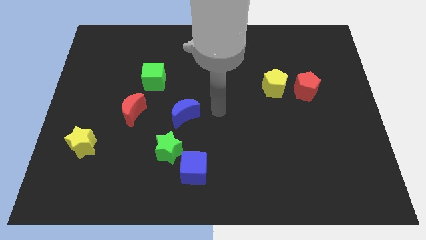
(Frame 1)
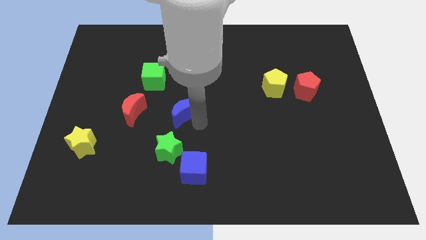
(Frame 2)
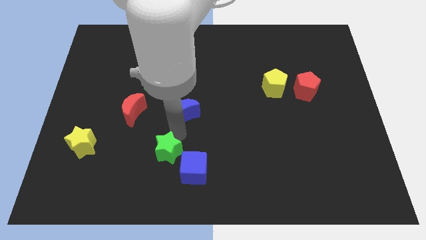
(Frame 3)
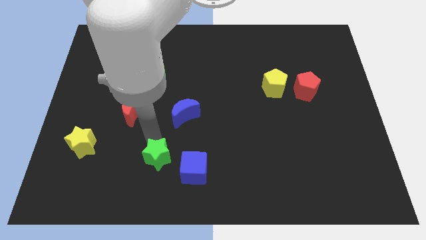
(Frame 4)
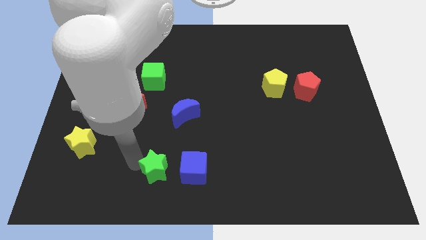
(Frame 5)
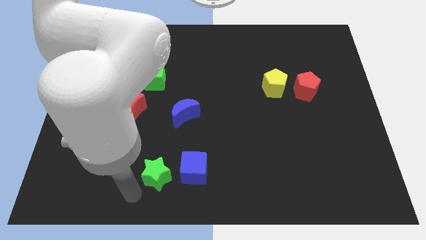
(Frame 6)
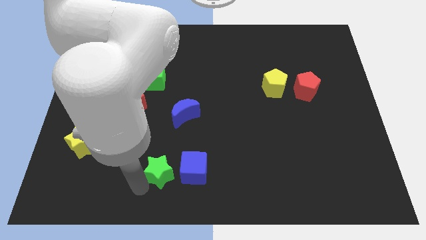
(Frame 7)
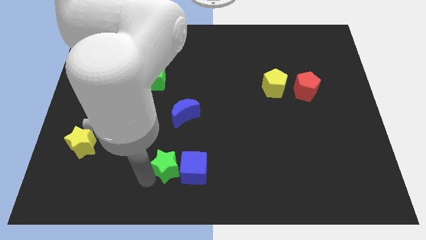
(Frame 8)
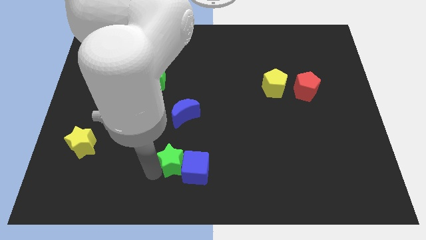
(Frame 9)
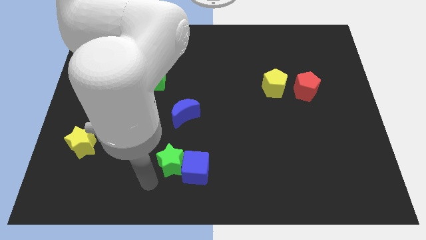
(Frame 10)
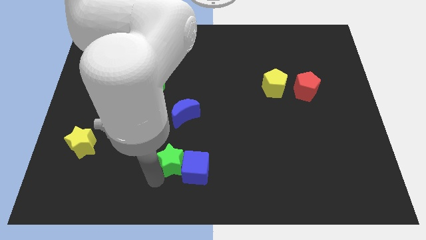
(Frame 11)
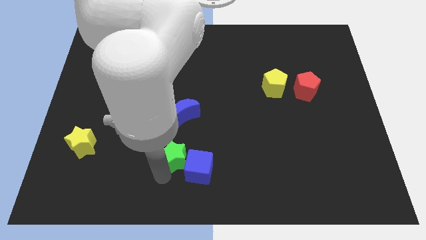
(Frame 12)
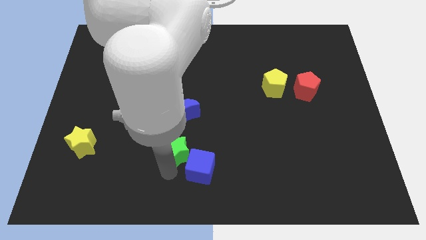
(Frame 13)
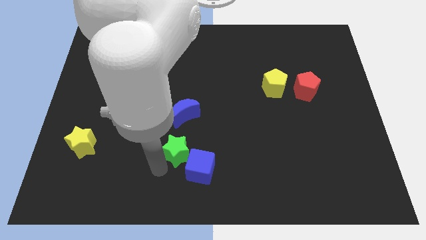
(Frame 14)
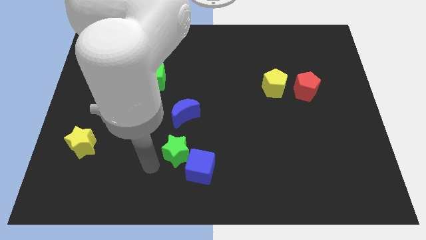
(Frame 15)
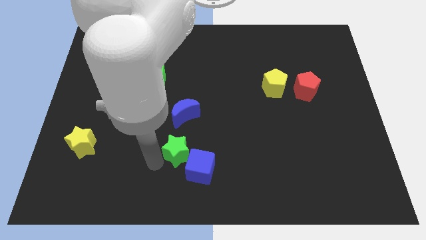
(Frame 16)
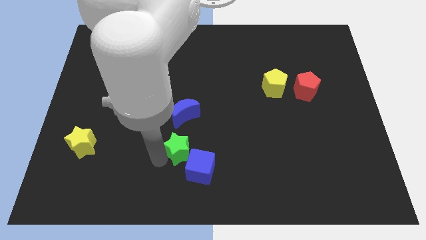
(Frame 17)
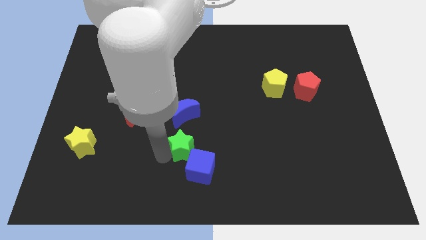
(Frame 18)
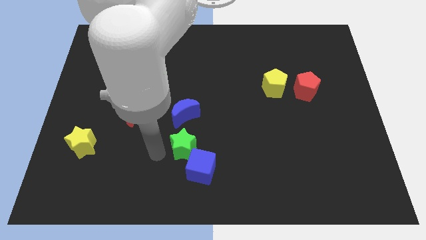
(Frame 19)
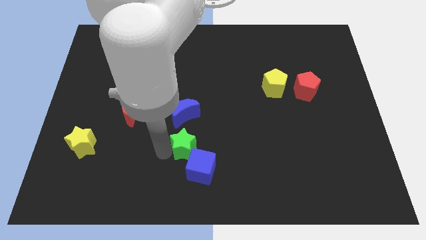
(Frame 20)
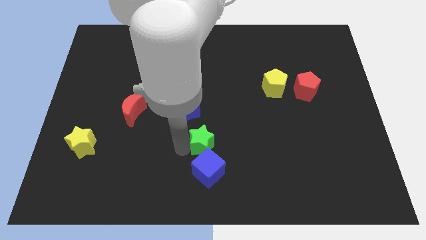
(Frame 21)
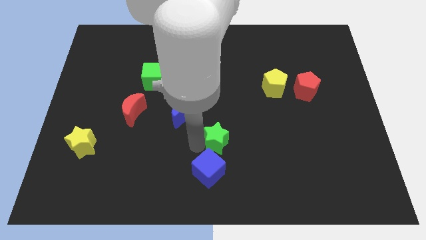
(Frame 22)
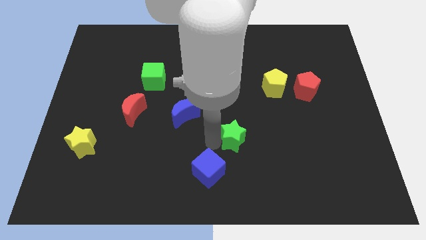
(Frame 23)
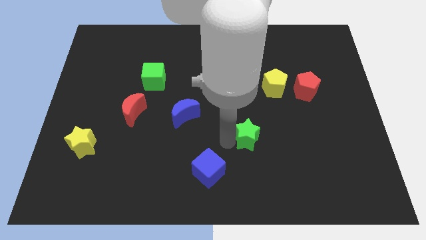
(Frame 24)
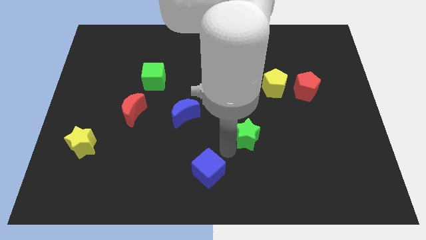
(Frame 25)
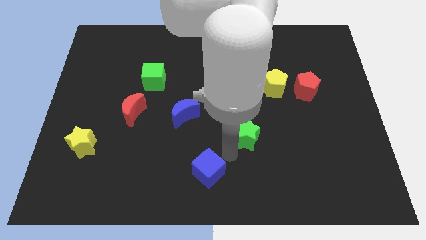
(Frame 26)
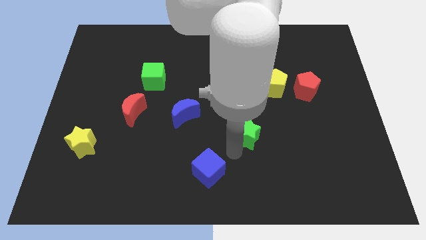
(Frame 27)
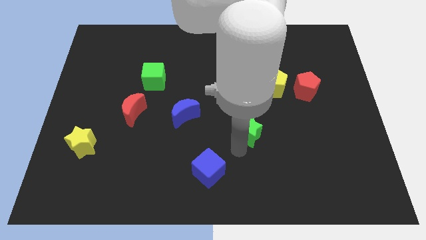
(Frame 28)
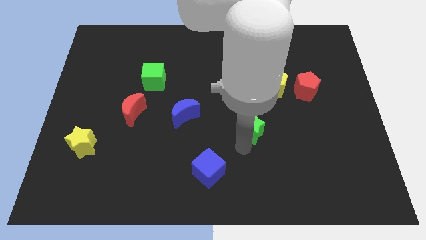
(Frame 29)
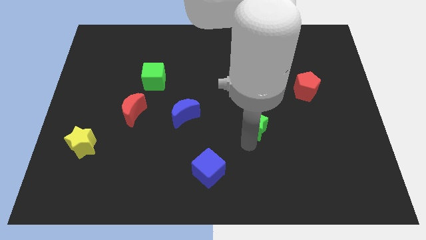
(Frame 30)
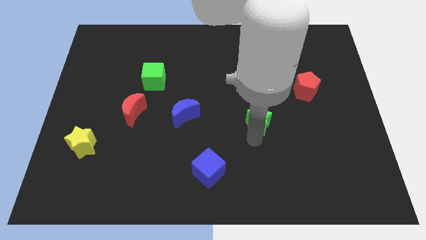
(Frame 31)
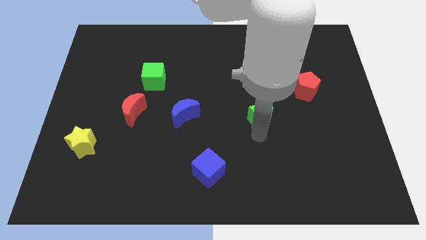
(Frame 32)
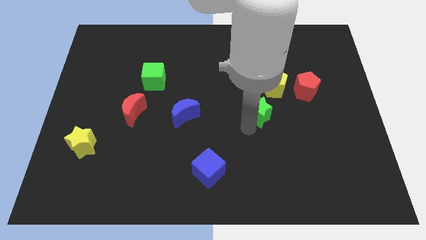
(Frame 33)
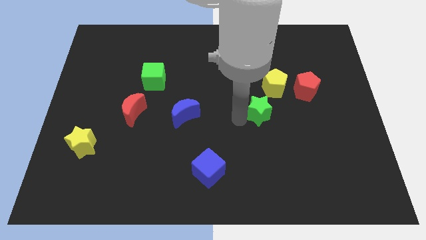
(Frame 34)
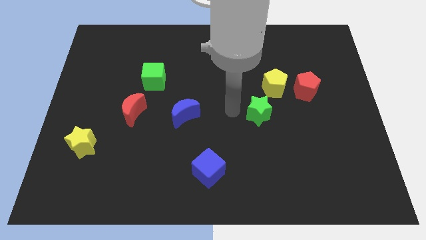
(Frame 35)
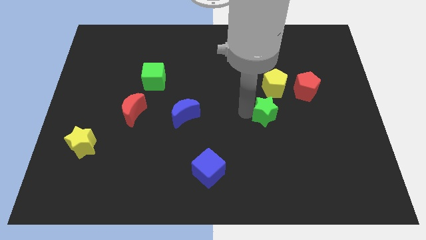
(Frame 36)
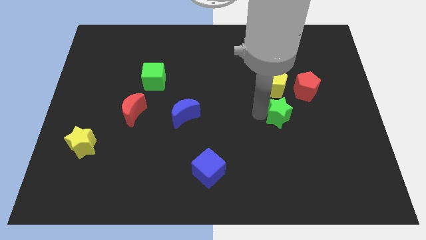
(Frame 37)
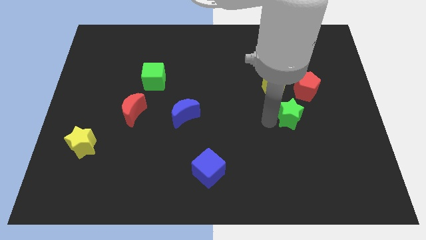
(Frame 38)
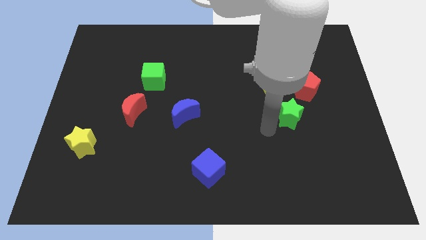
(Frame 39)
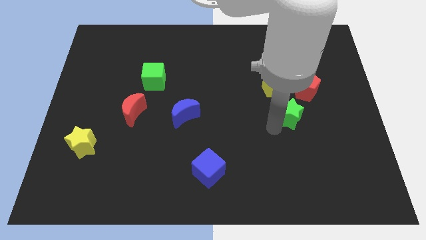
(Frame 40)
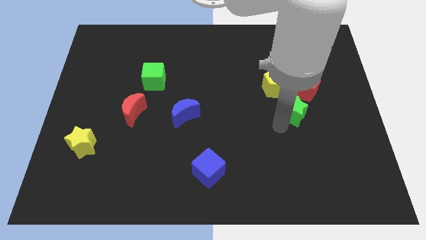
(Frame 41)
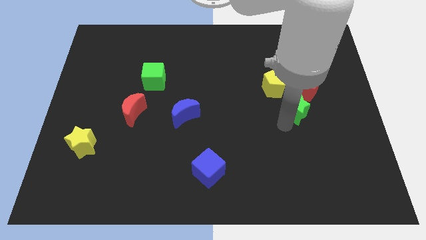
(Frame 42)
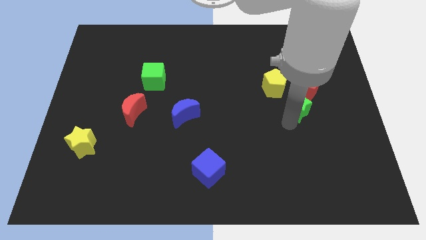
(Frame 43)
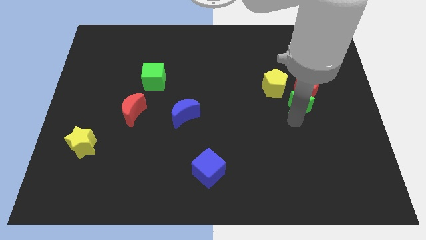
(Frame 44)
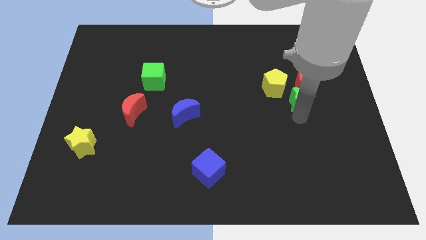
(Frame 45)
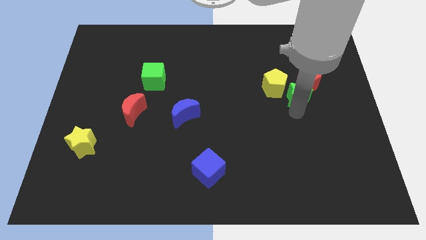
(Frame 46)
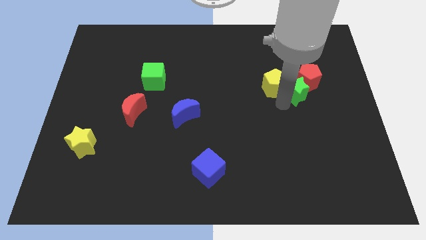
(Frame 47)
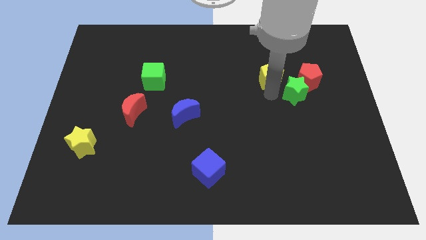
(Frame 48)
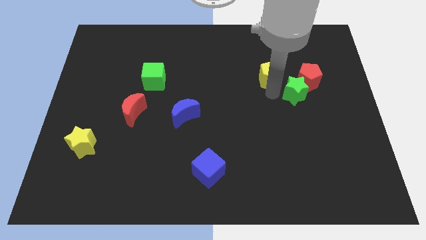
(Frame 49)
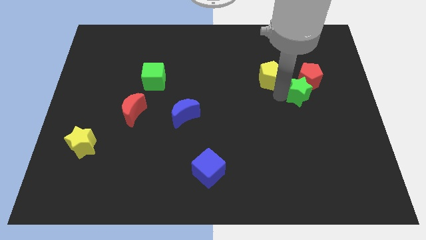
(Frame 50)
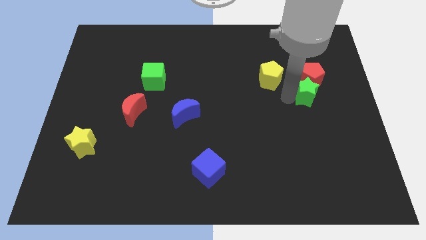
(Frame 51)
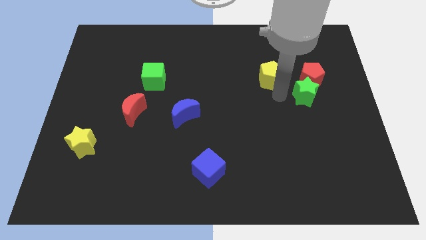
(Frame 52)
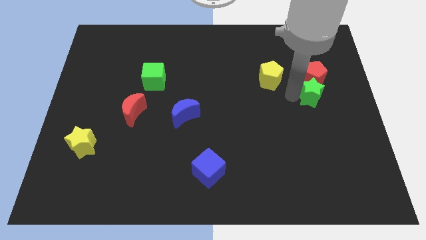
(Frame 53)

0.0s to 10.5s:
push the green star to the bottom right of the red pentagon
